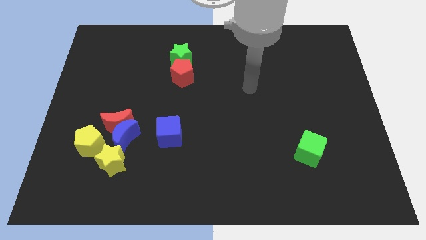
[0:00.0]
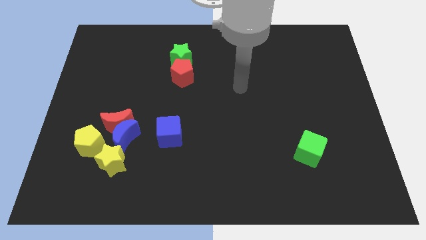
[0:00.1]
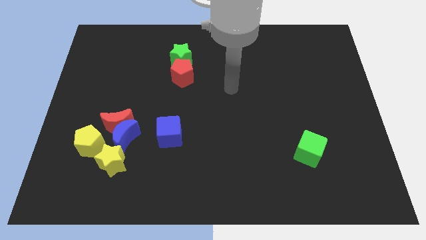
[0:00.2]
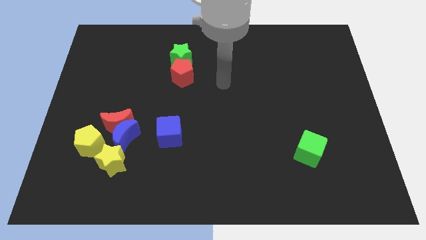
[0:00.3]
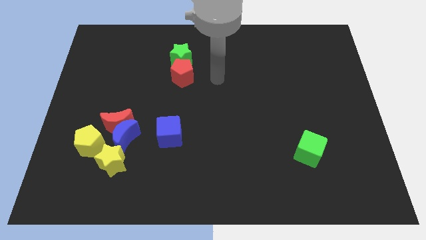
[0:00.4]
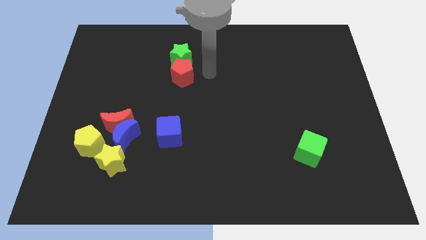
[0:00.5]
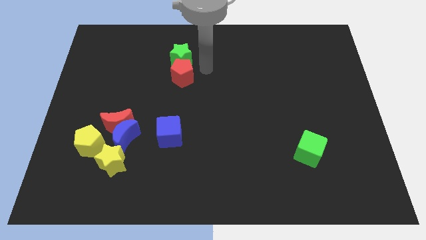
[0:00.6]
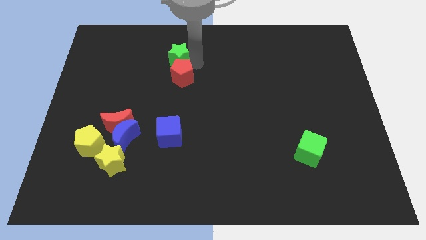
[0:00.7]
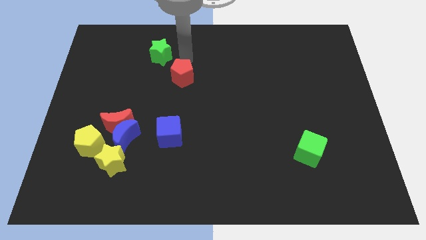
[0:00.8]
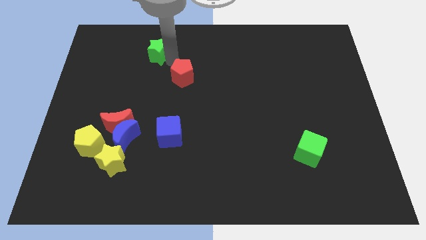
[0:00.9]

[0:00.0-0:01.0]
pull the red pentagon apart from the green star

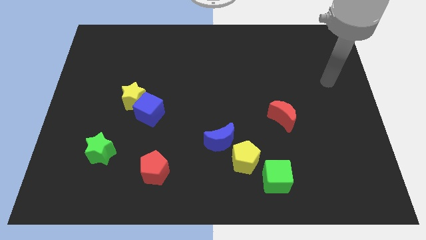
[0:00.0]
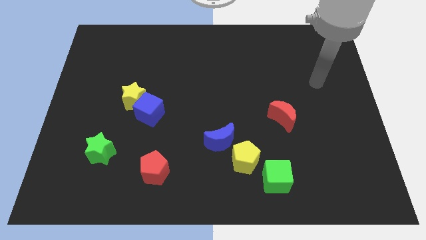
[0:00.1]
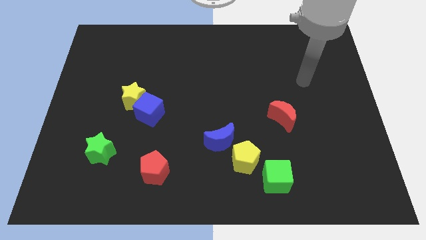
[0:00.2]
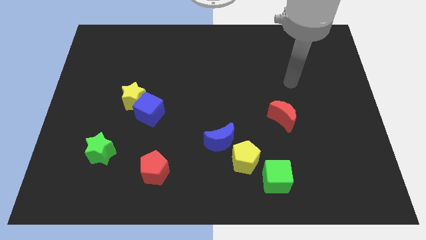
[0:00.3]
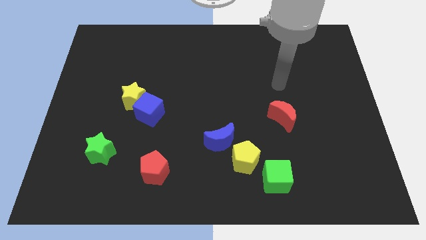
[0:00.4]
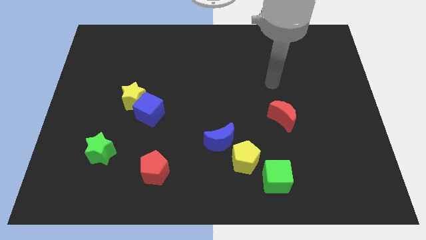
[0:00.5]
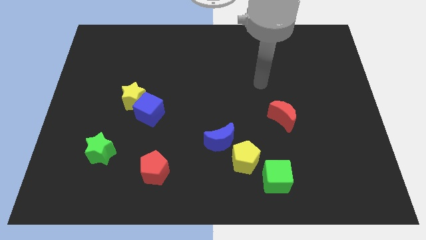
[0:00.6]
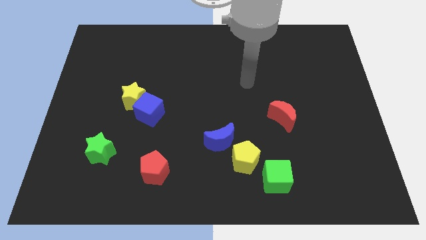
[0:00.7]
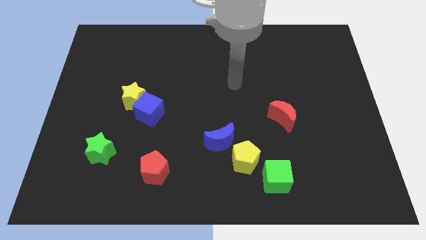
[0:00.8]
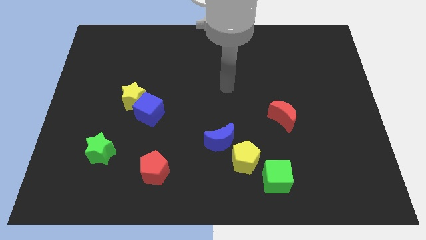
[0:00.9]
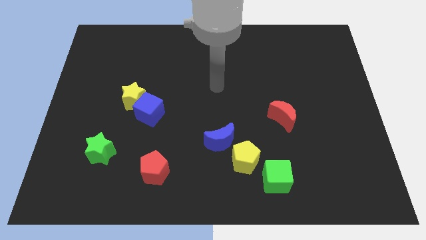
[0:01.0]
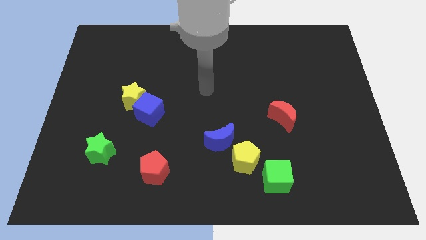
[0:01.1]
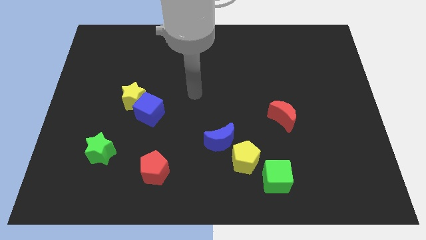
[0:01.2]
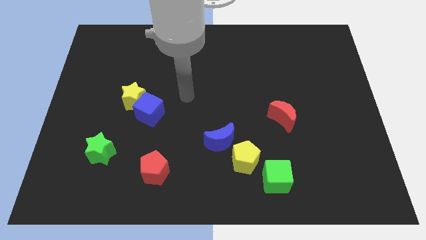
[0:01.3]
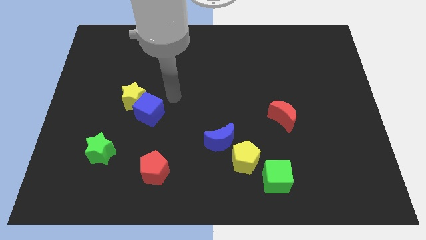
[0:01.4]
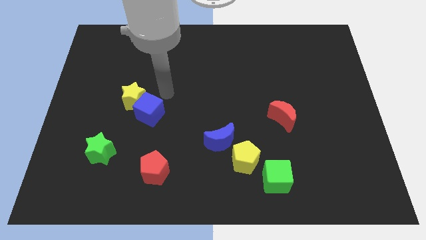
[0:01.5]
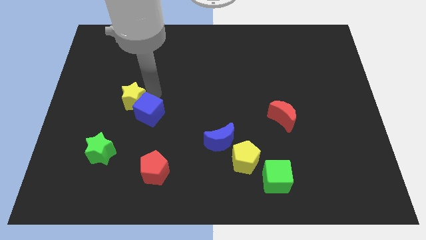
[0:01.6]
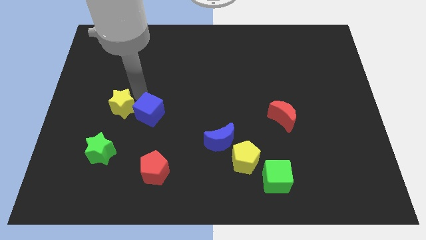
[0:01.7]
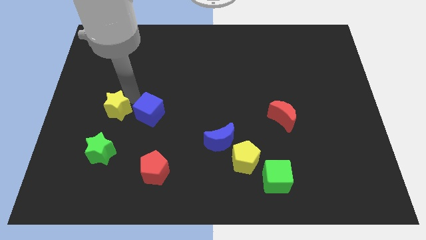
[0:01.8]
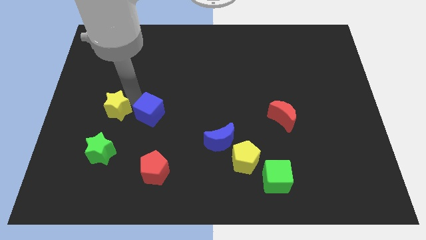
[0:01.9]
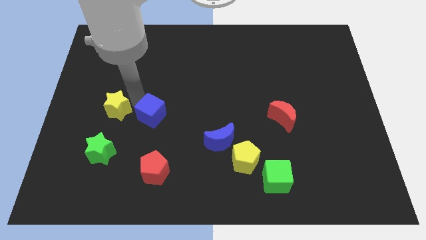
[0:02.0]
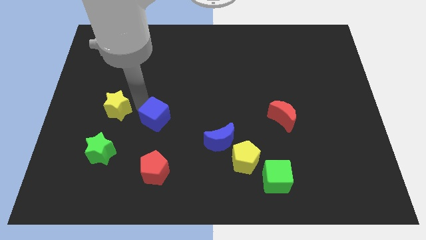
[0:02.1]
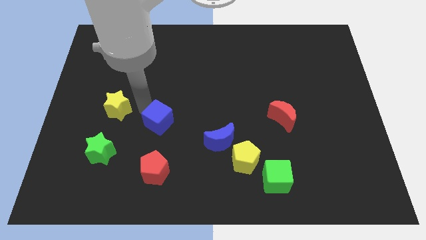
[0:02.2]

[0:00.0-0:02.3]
move the blue cube away from the yellow star

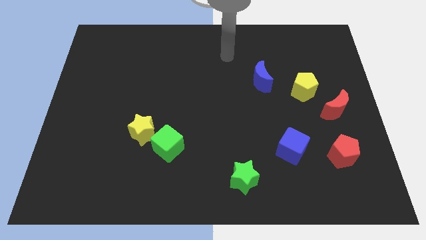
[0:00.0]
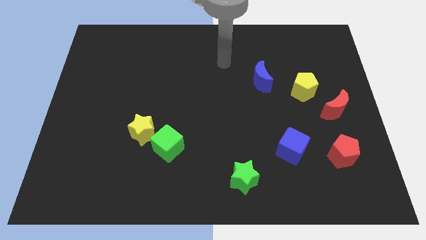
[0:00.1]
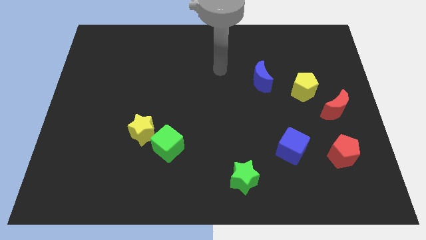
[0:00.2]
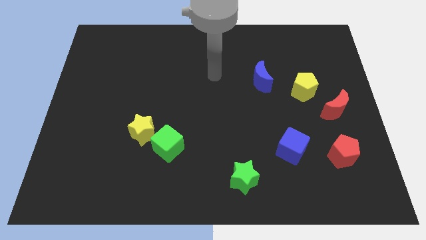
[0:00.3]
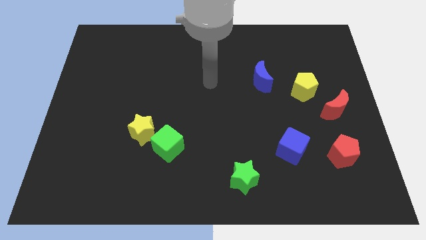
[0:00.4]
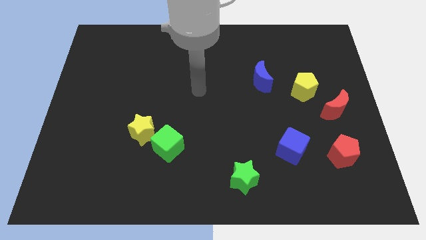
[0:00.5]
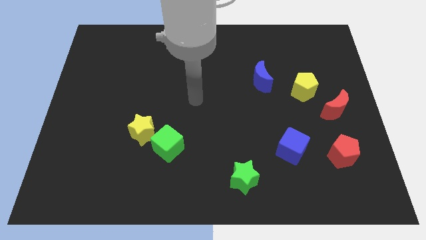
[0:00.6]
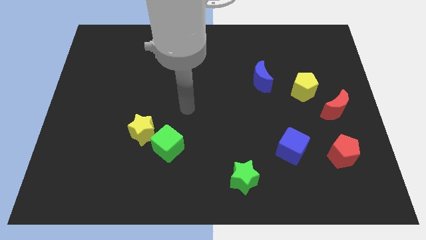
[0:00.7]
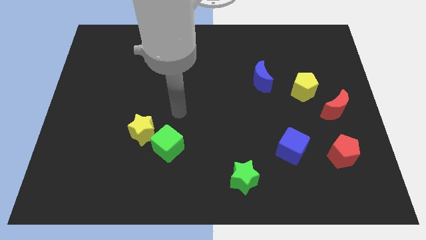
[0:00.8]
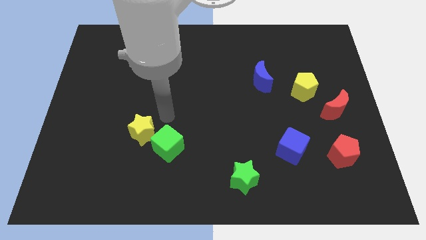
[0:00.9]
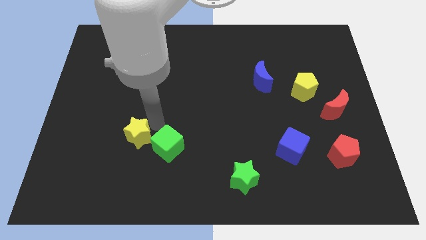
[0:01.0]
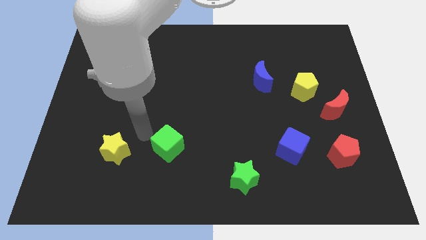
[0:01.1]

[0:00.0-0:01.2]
pull the green cube apart from the yellow star

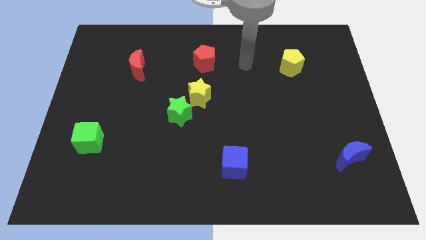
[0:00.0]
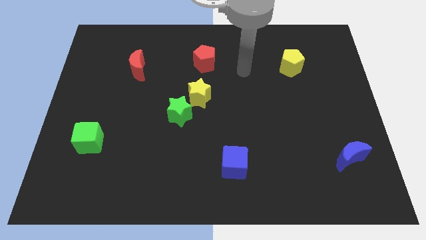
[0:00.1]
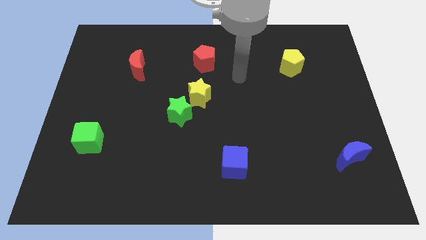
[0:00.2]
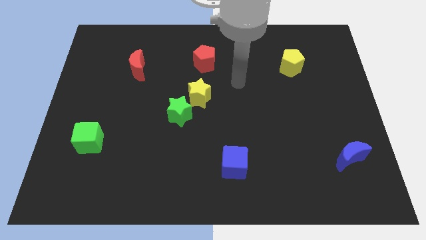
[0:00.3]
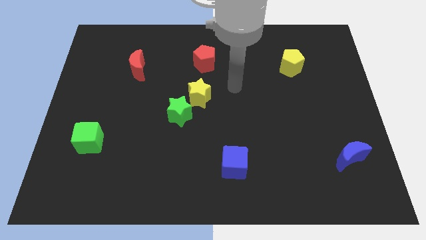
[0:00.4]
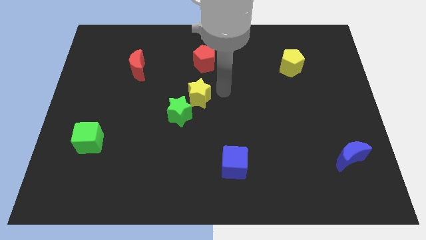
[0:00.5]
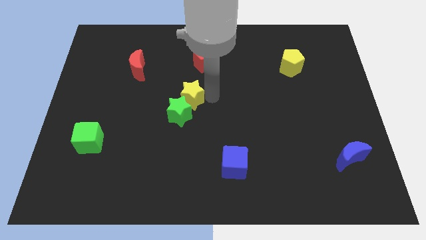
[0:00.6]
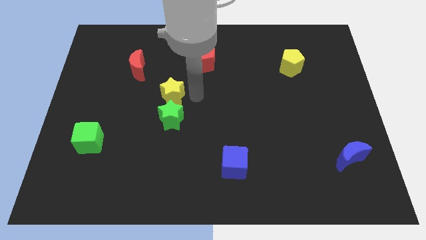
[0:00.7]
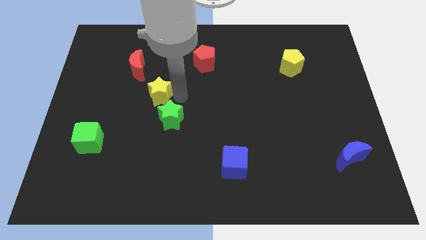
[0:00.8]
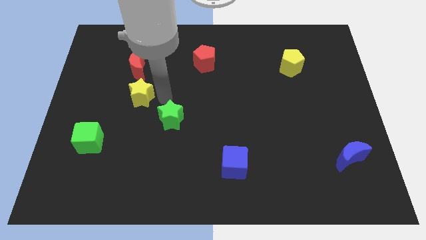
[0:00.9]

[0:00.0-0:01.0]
move the green star away from the yellow star

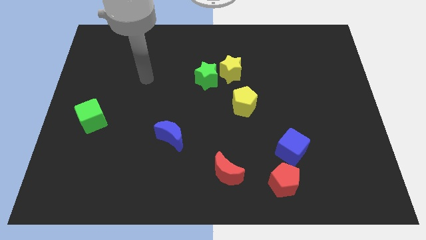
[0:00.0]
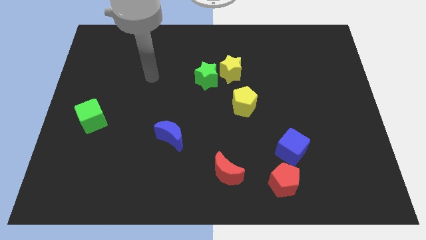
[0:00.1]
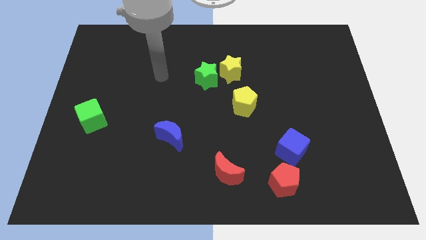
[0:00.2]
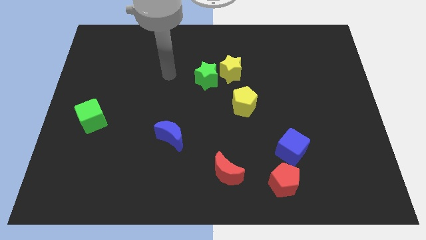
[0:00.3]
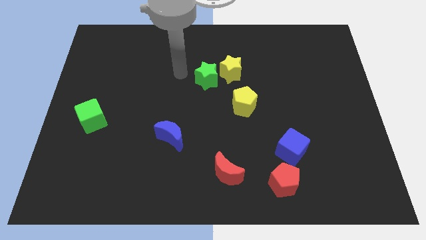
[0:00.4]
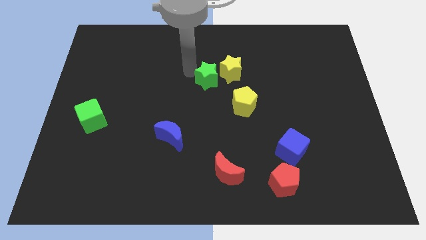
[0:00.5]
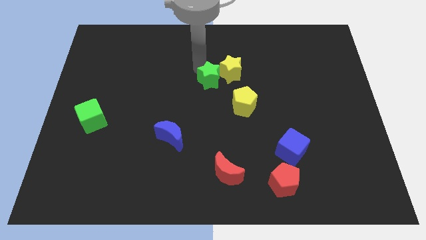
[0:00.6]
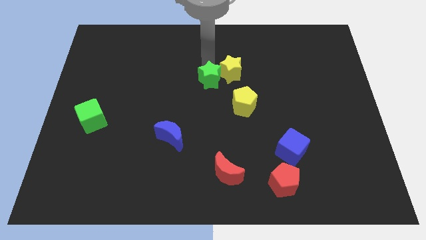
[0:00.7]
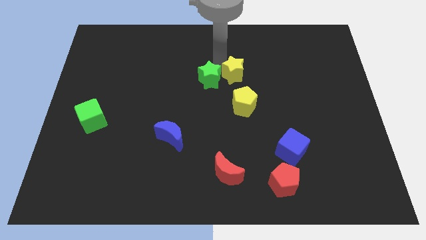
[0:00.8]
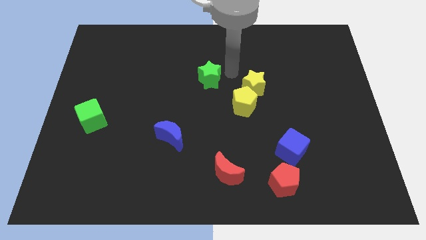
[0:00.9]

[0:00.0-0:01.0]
separate the green star from the yellow star

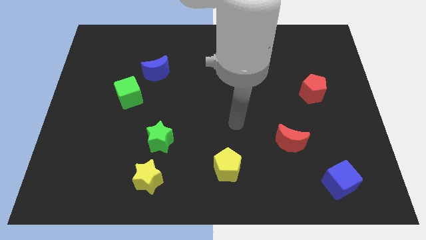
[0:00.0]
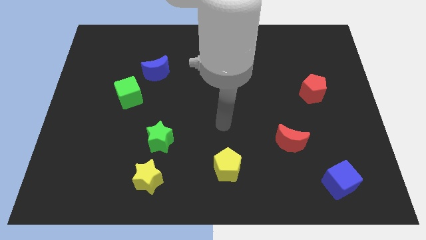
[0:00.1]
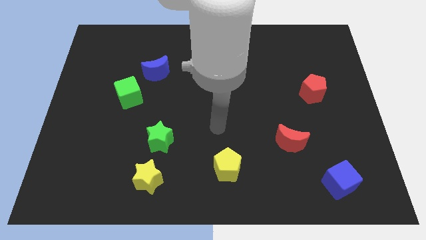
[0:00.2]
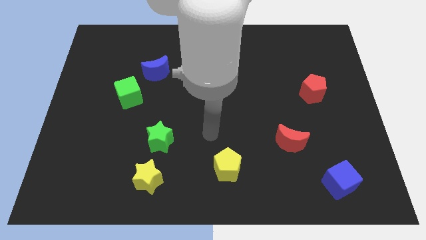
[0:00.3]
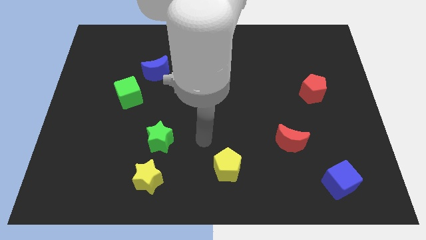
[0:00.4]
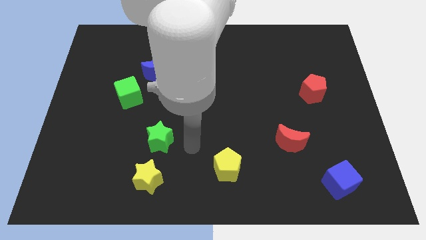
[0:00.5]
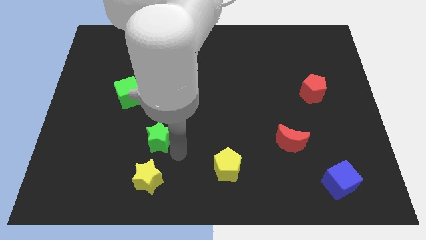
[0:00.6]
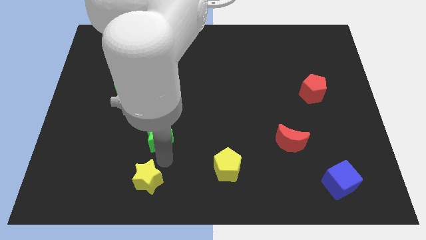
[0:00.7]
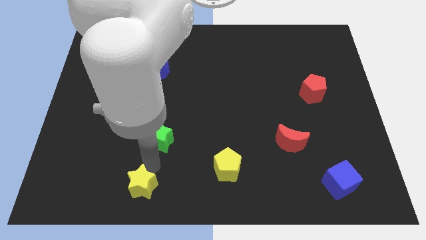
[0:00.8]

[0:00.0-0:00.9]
pull the green star apart from the yellow star

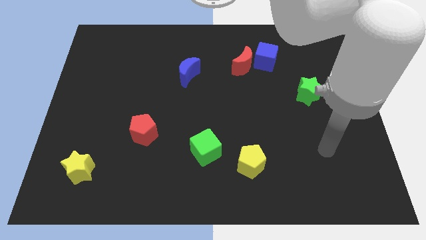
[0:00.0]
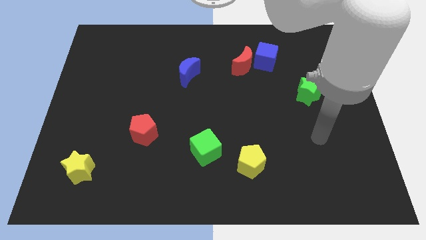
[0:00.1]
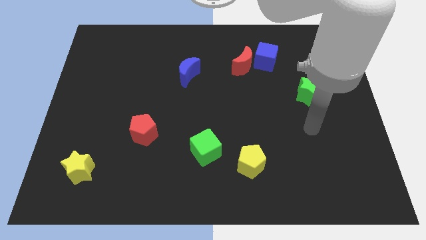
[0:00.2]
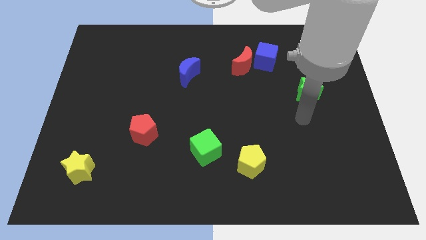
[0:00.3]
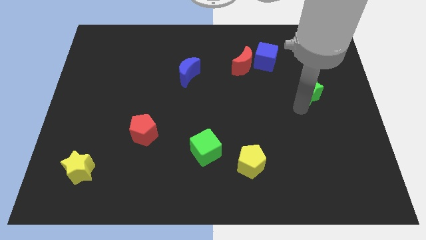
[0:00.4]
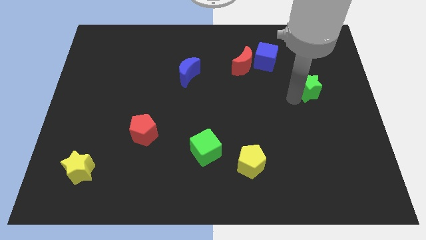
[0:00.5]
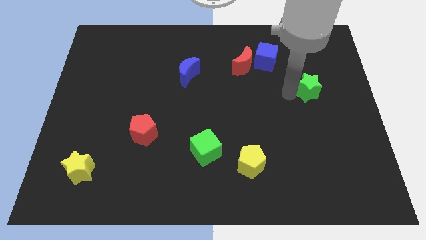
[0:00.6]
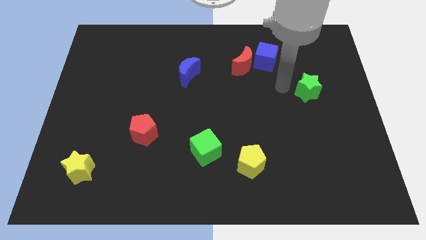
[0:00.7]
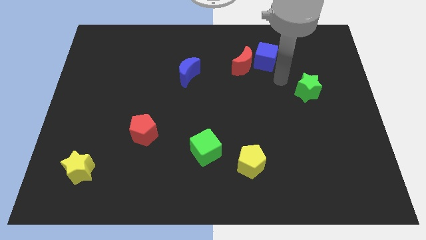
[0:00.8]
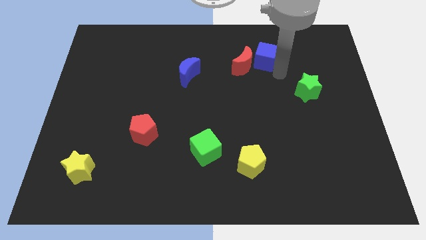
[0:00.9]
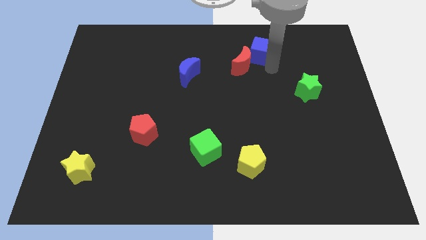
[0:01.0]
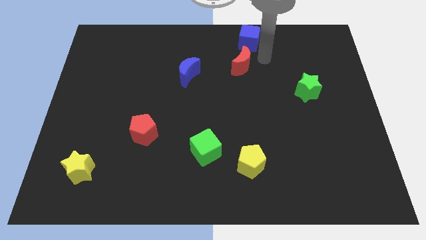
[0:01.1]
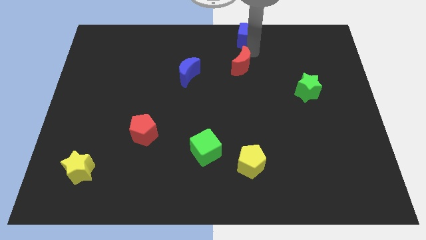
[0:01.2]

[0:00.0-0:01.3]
move the red moon away from the blue cube

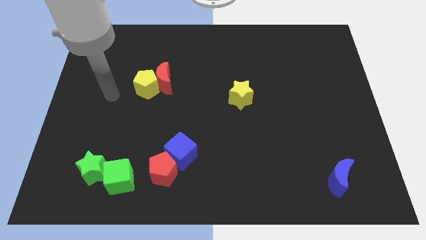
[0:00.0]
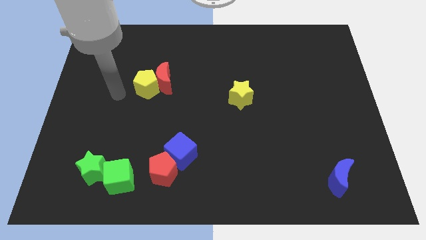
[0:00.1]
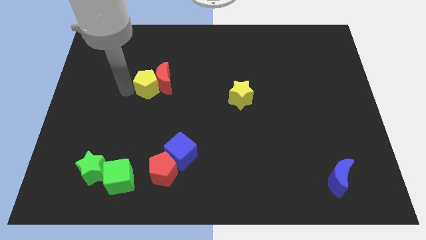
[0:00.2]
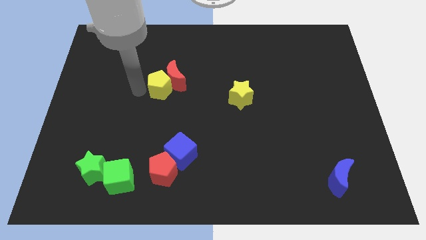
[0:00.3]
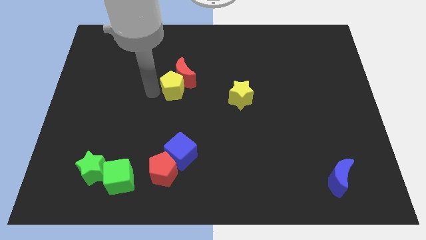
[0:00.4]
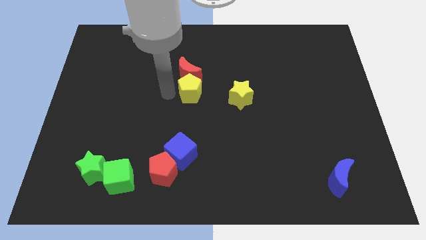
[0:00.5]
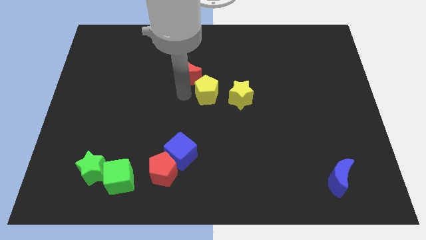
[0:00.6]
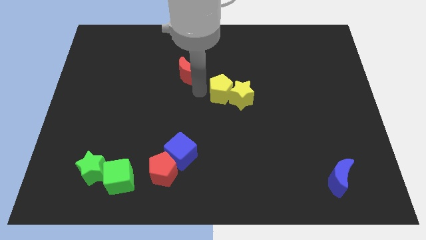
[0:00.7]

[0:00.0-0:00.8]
move the red moon away from the yellow pentagon
